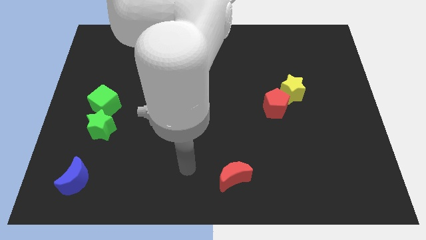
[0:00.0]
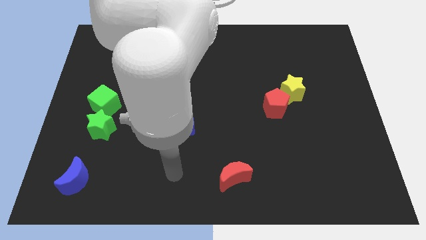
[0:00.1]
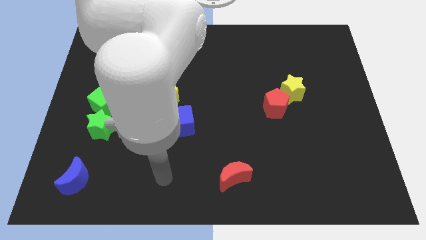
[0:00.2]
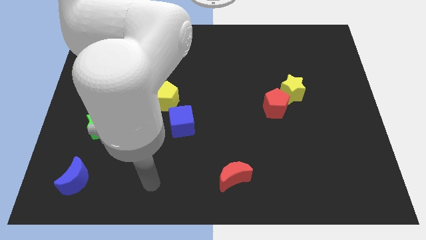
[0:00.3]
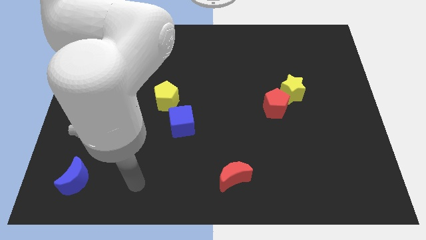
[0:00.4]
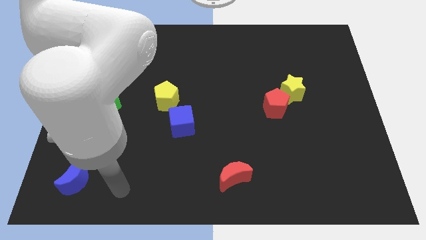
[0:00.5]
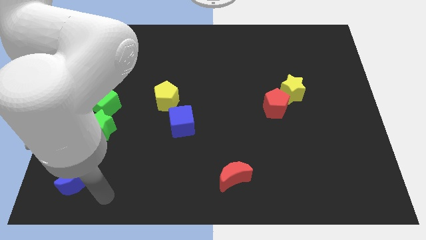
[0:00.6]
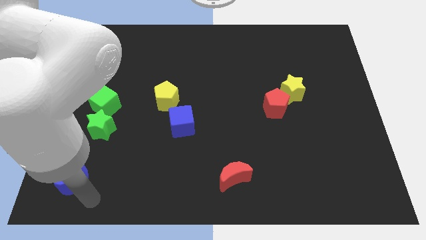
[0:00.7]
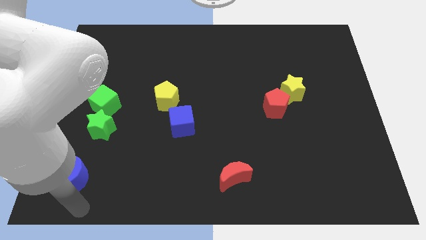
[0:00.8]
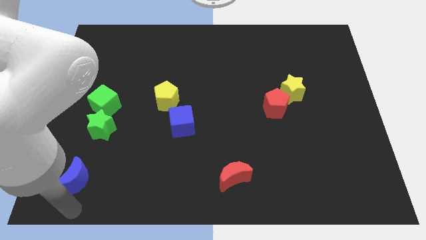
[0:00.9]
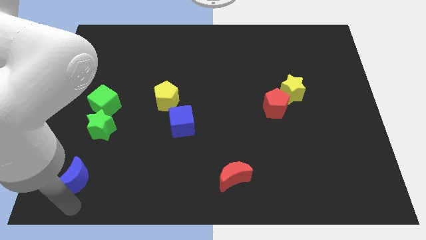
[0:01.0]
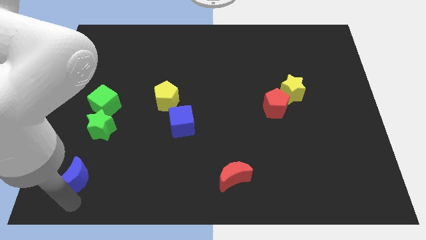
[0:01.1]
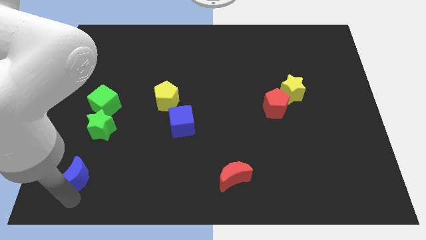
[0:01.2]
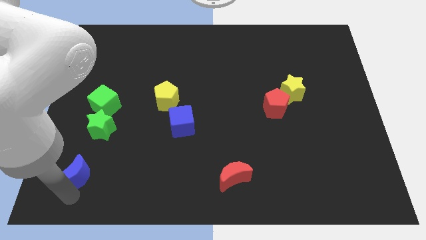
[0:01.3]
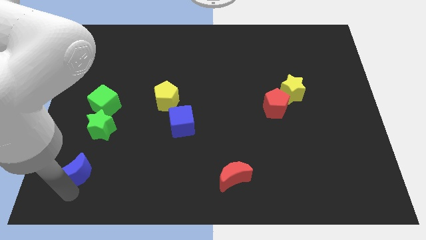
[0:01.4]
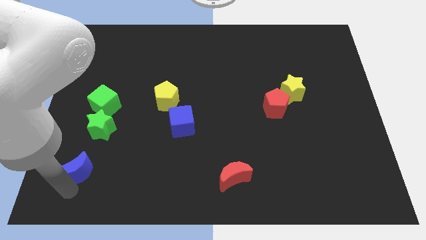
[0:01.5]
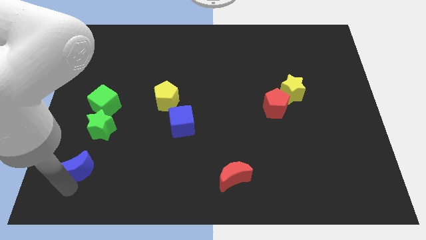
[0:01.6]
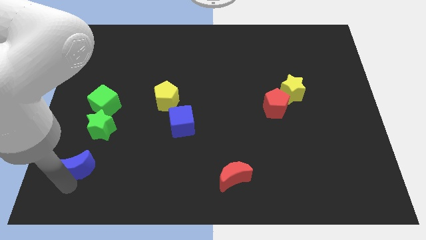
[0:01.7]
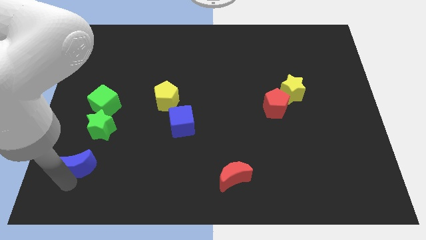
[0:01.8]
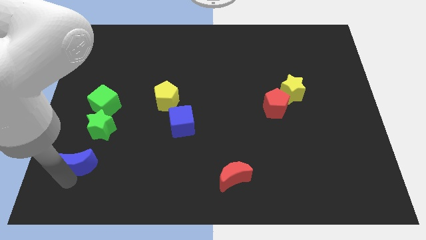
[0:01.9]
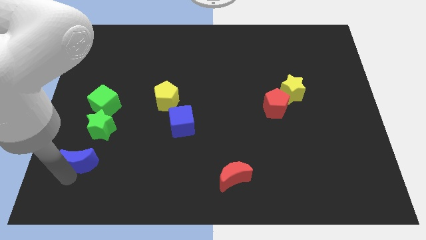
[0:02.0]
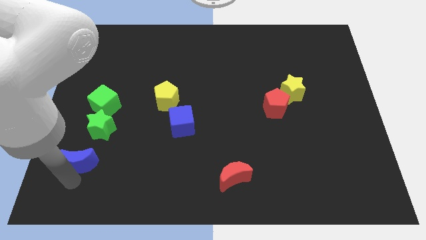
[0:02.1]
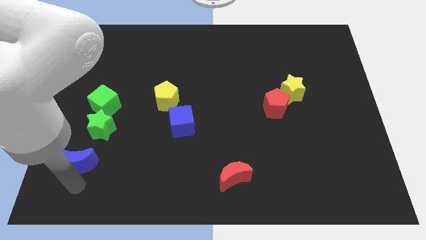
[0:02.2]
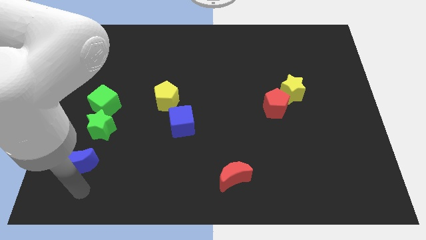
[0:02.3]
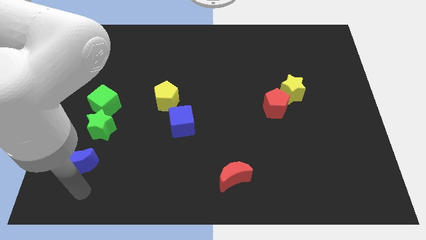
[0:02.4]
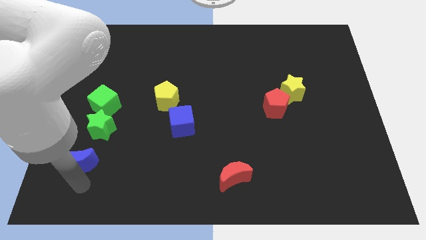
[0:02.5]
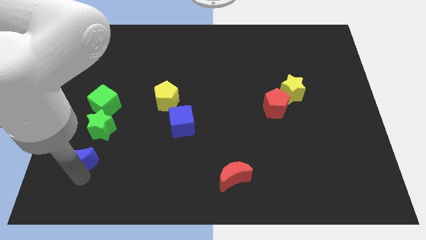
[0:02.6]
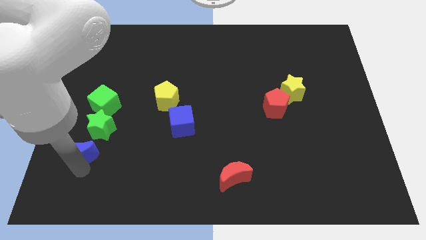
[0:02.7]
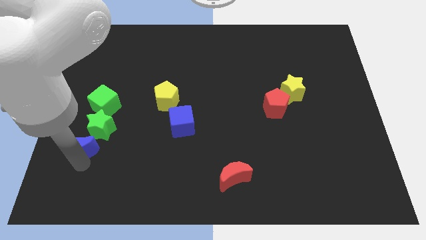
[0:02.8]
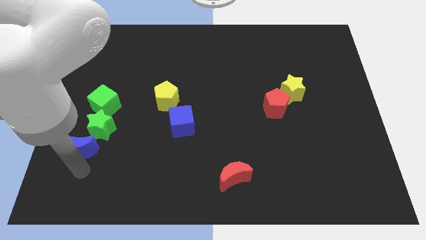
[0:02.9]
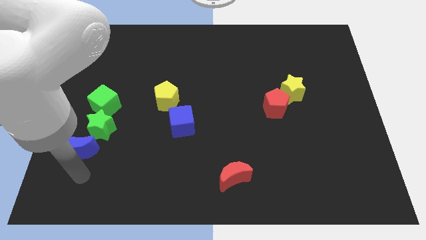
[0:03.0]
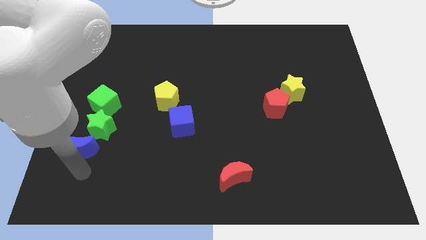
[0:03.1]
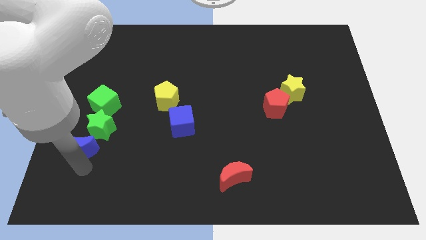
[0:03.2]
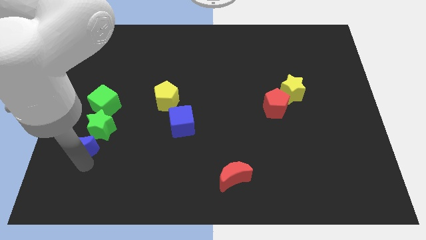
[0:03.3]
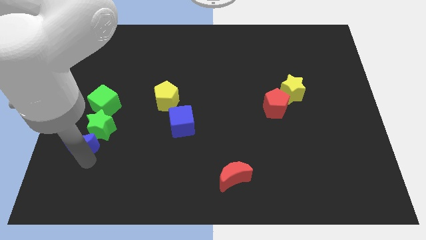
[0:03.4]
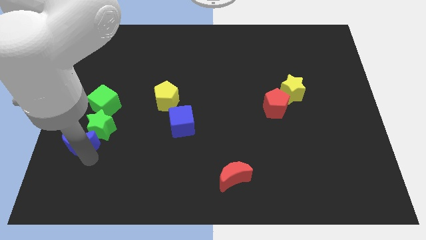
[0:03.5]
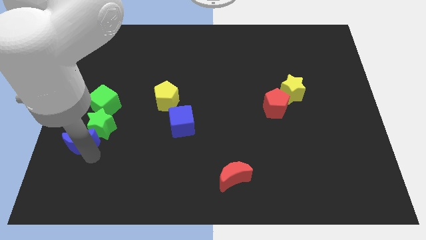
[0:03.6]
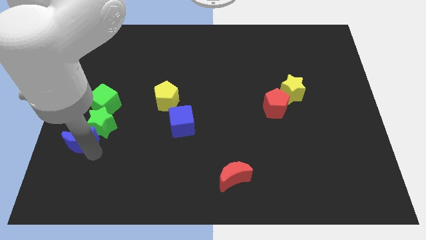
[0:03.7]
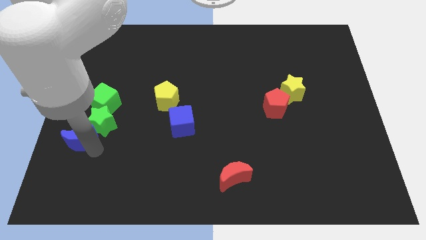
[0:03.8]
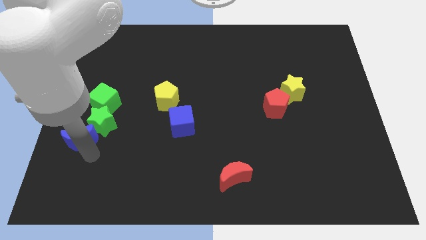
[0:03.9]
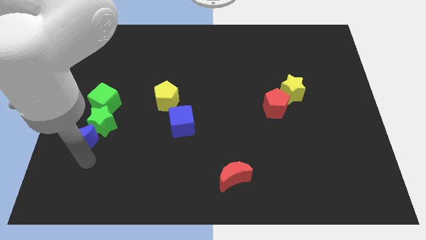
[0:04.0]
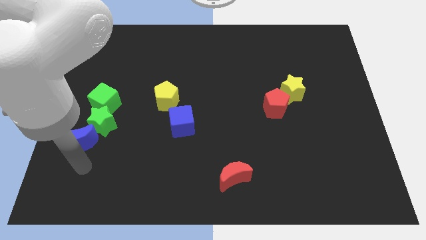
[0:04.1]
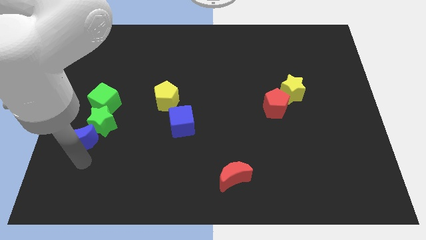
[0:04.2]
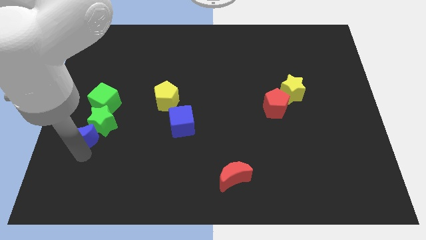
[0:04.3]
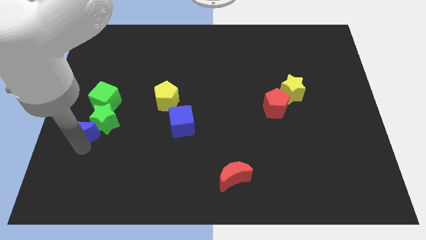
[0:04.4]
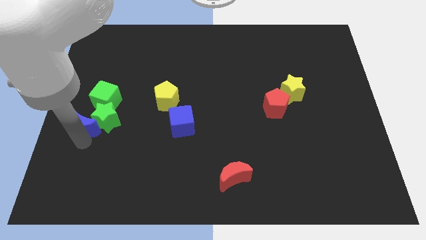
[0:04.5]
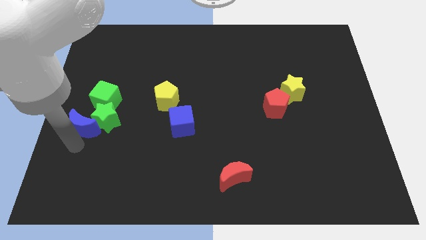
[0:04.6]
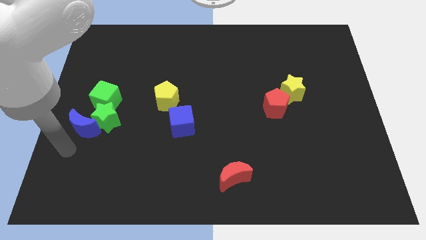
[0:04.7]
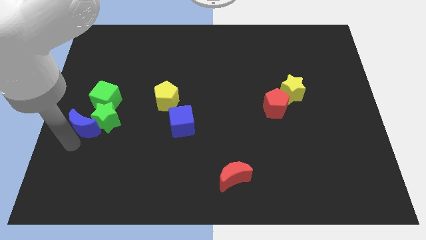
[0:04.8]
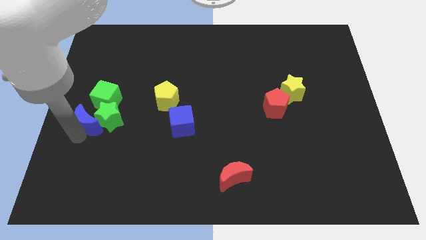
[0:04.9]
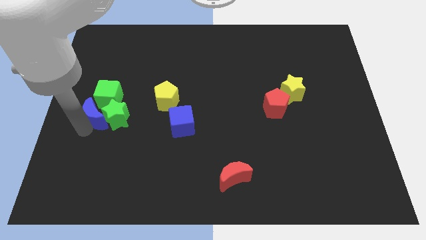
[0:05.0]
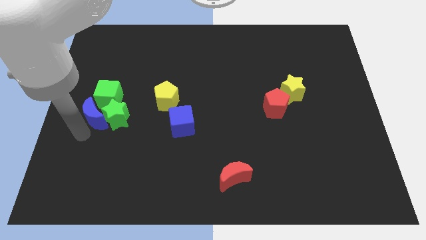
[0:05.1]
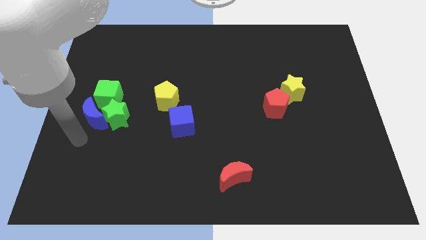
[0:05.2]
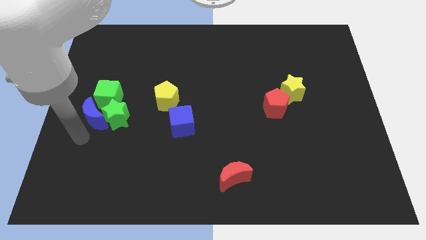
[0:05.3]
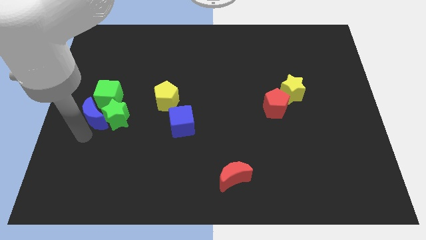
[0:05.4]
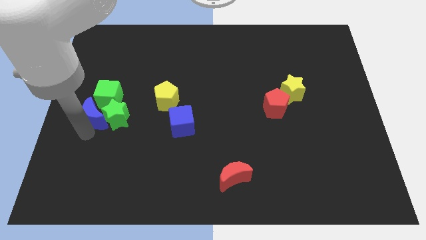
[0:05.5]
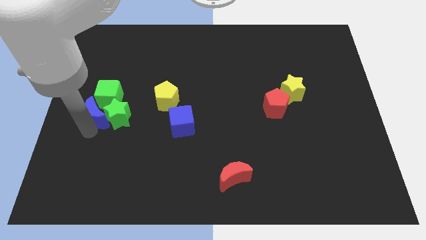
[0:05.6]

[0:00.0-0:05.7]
slide the blue moon to the green cube

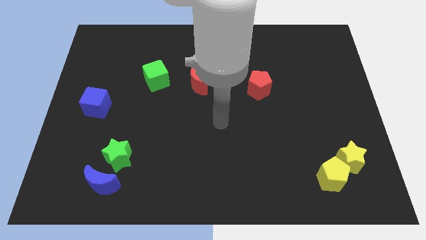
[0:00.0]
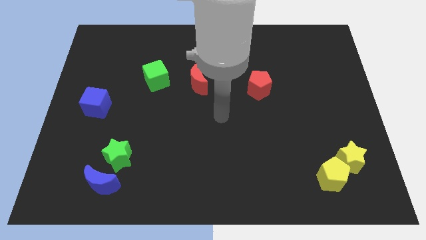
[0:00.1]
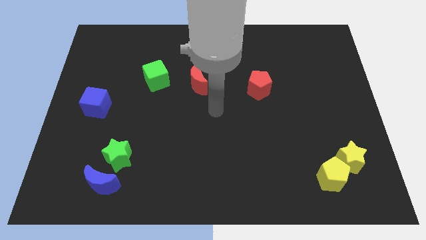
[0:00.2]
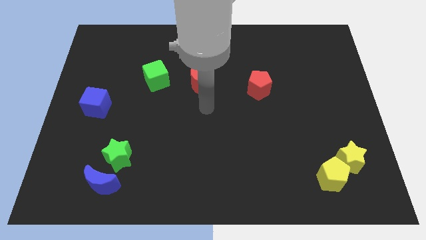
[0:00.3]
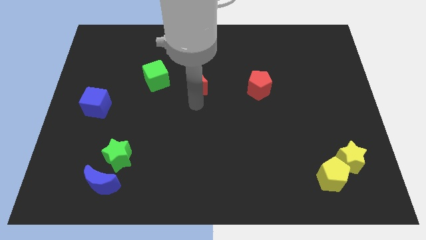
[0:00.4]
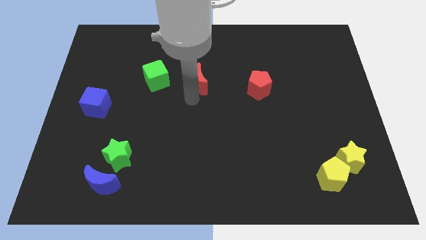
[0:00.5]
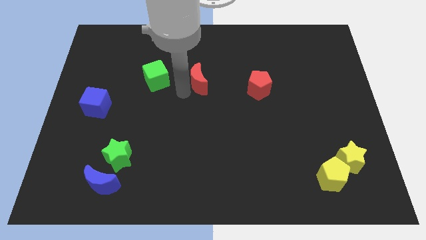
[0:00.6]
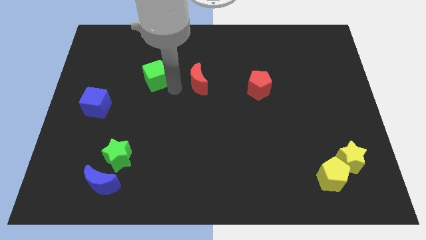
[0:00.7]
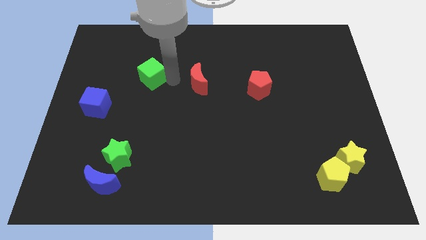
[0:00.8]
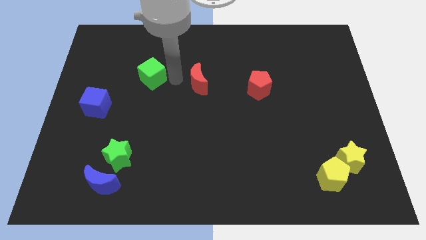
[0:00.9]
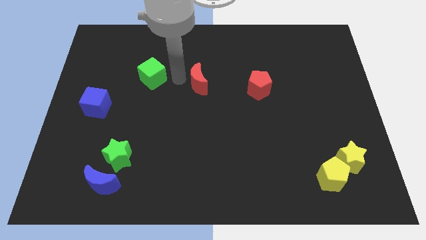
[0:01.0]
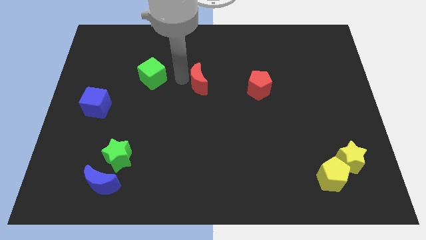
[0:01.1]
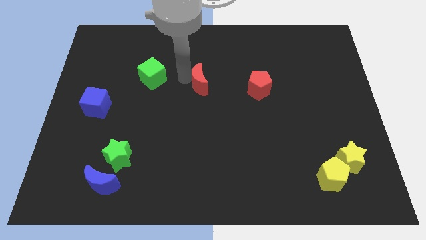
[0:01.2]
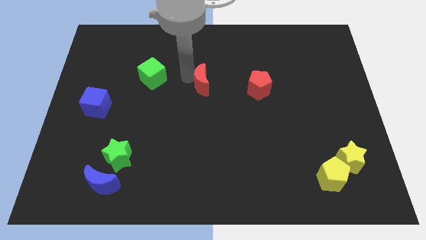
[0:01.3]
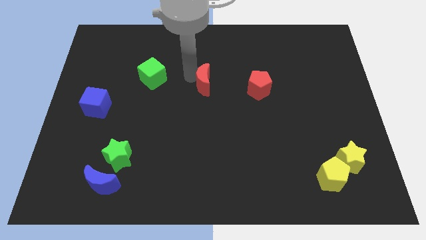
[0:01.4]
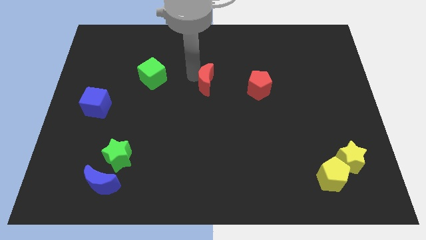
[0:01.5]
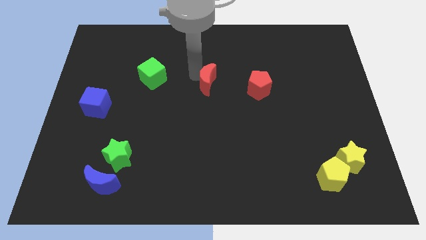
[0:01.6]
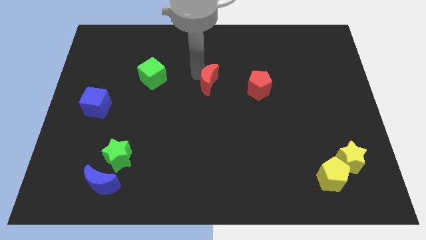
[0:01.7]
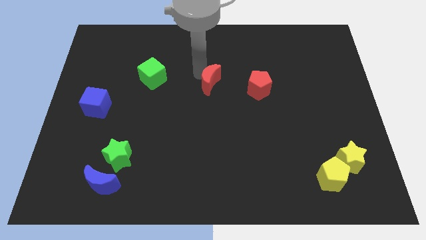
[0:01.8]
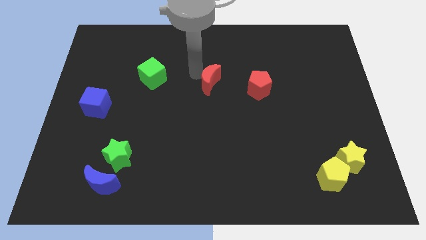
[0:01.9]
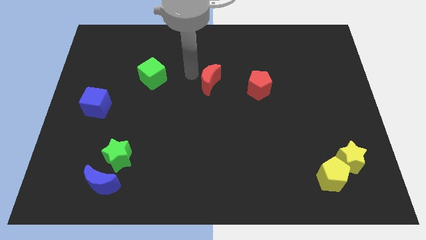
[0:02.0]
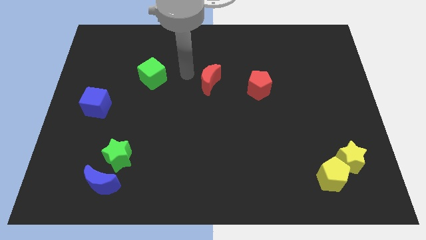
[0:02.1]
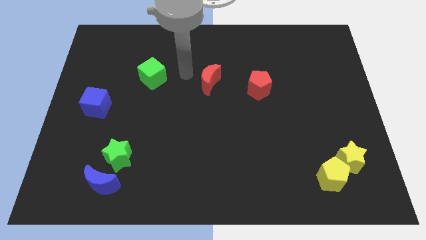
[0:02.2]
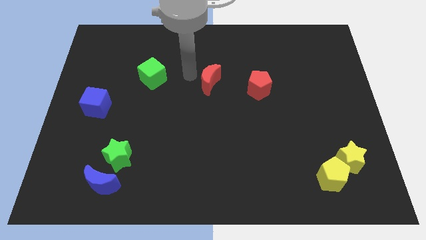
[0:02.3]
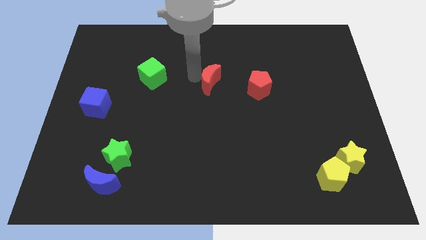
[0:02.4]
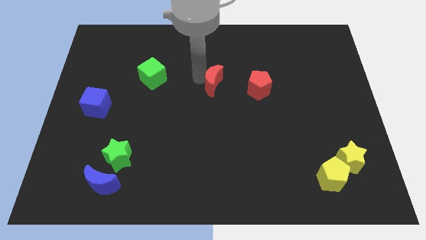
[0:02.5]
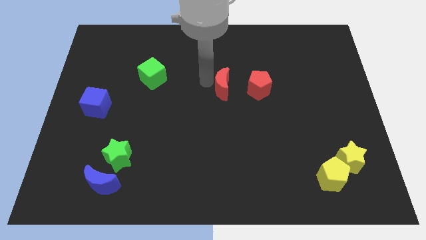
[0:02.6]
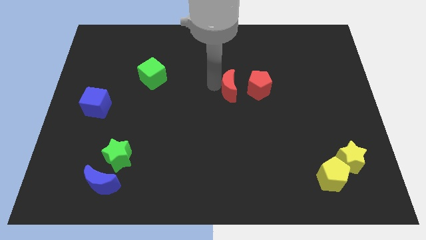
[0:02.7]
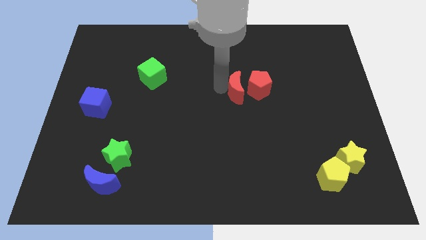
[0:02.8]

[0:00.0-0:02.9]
put the red moon to the red pentagon
